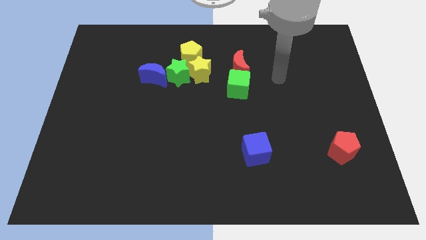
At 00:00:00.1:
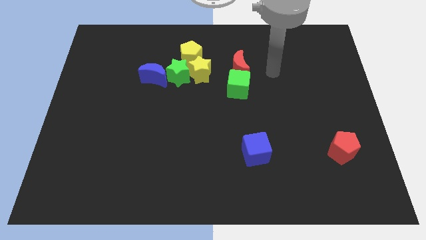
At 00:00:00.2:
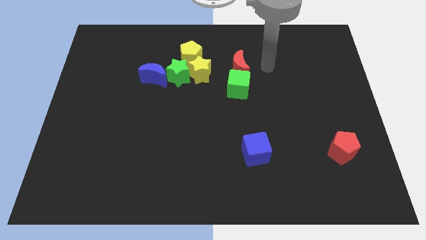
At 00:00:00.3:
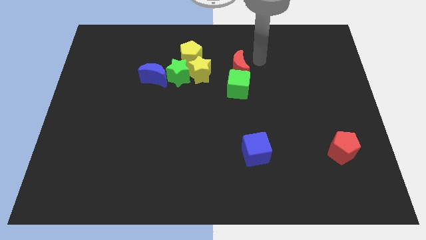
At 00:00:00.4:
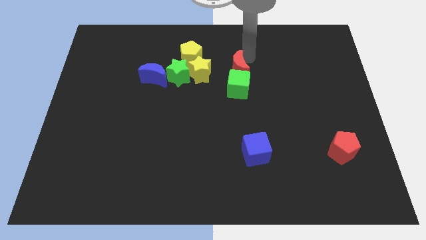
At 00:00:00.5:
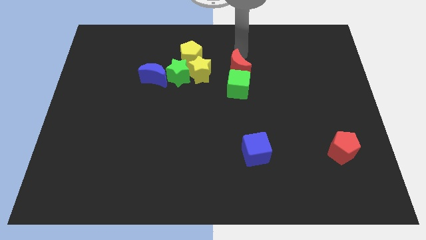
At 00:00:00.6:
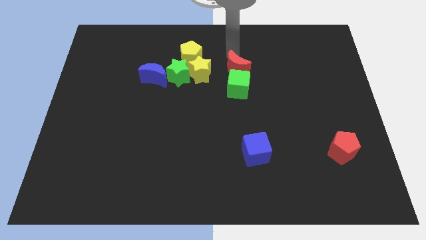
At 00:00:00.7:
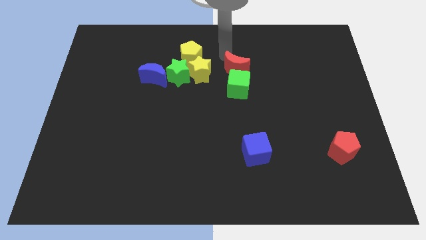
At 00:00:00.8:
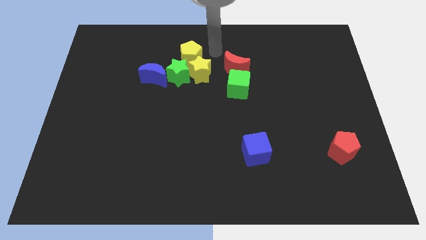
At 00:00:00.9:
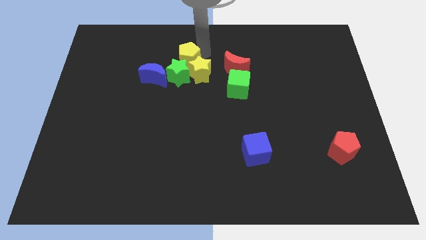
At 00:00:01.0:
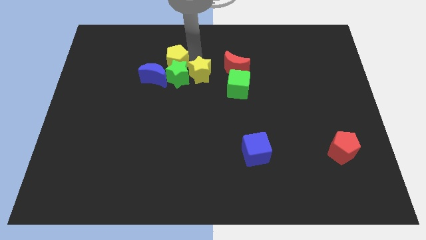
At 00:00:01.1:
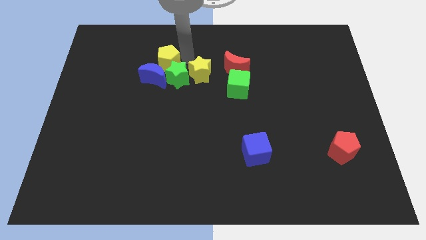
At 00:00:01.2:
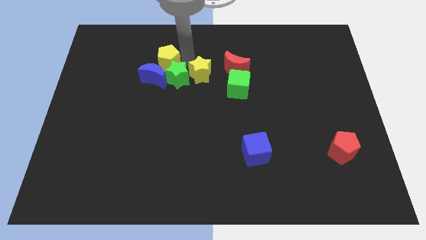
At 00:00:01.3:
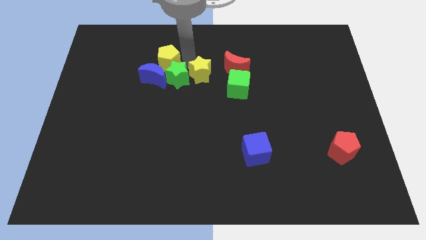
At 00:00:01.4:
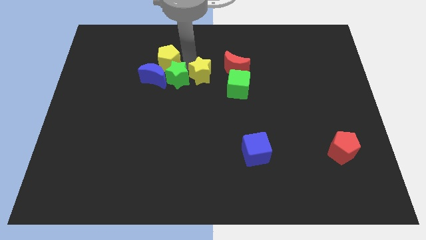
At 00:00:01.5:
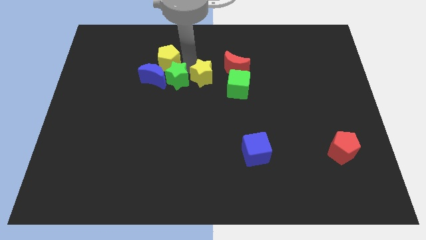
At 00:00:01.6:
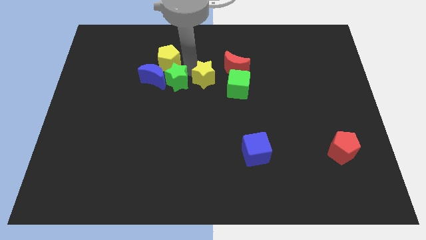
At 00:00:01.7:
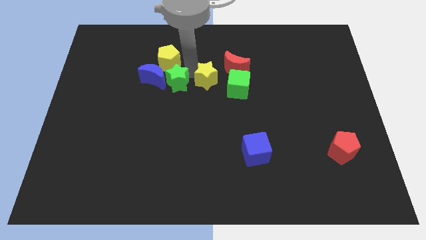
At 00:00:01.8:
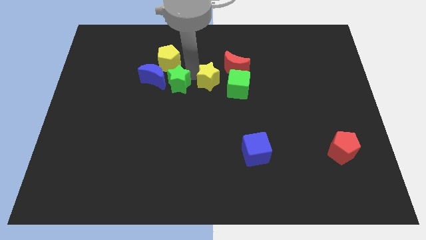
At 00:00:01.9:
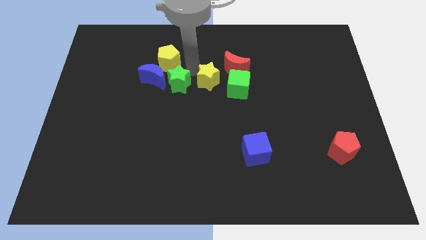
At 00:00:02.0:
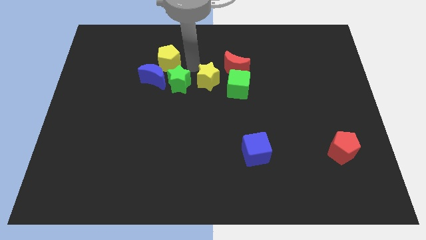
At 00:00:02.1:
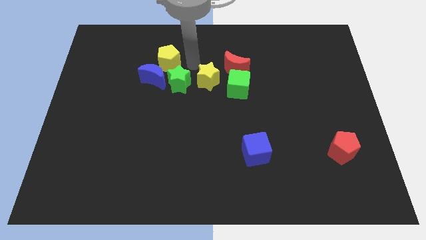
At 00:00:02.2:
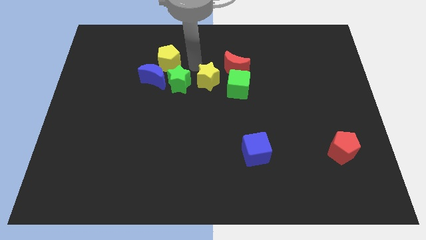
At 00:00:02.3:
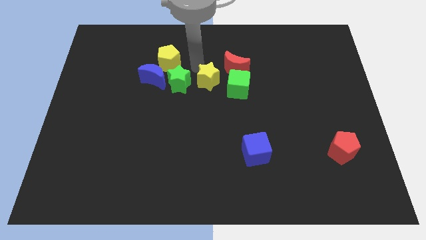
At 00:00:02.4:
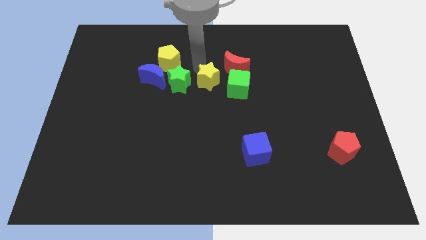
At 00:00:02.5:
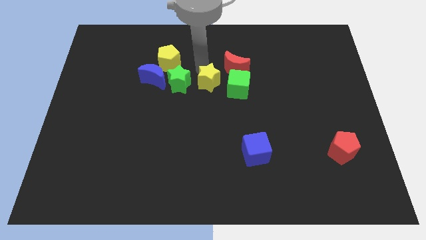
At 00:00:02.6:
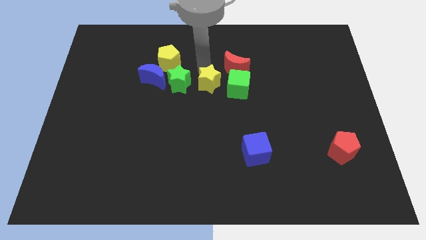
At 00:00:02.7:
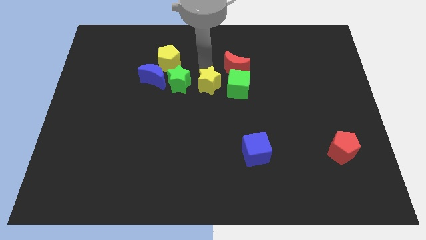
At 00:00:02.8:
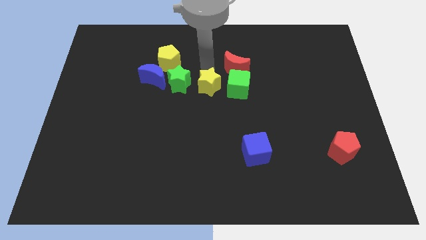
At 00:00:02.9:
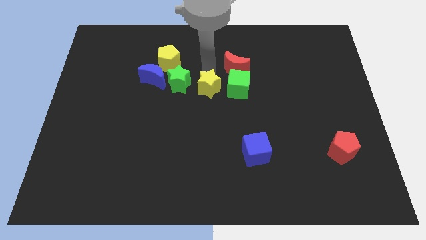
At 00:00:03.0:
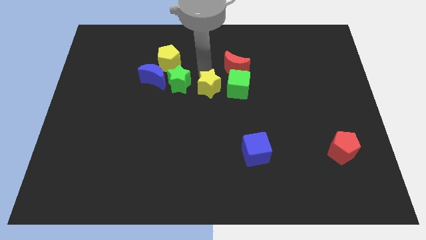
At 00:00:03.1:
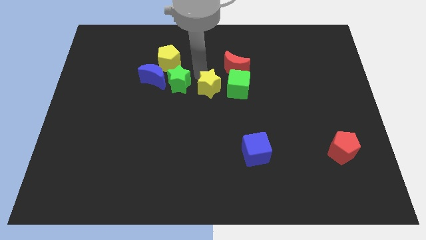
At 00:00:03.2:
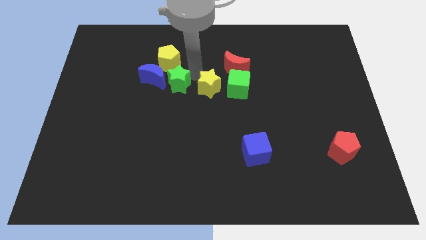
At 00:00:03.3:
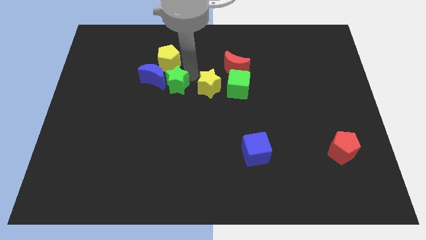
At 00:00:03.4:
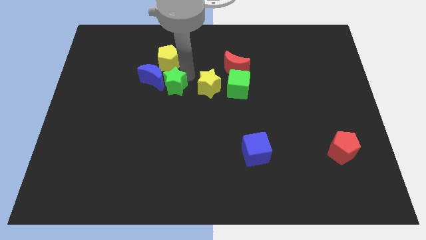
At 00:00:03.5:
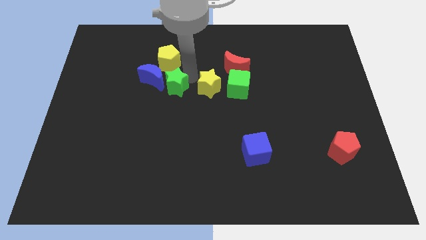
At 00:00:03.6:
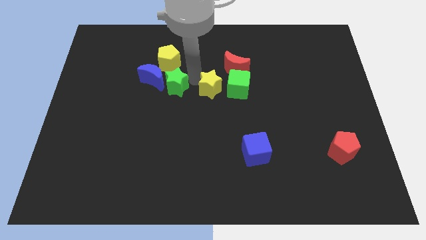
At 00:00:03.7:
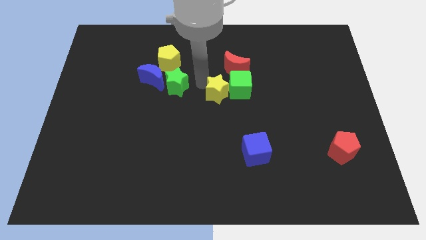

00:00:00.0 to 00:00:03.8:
slightly slide the yellow star downwards and to the right diagonally

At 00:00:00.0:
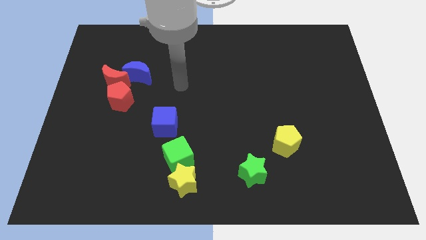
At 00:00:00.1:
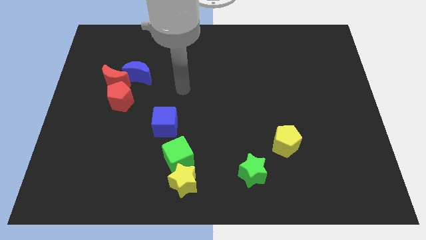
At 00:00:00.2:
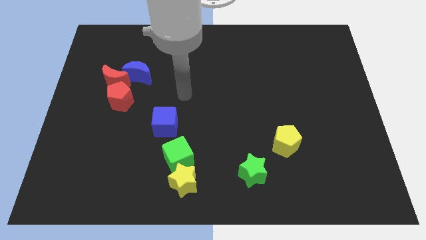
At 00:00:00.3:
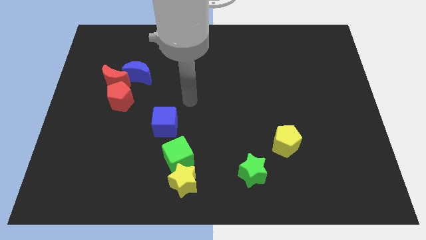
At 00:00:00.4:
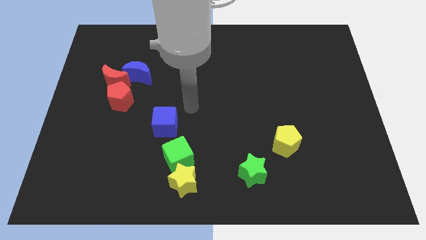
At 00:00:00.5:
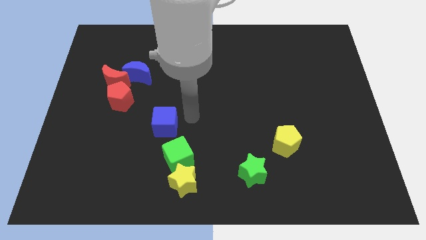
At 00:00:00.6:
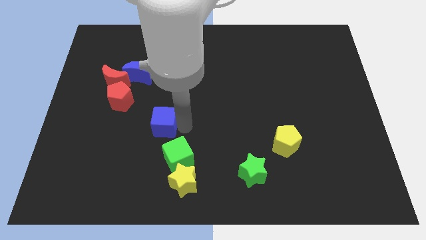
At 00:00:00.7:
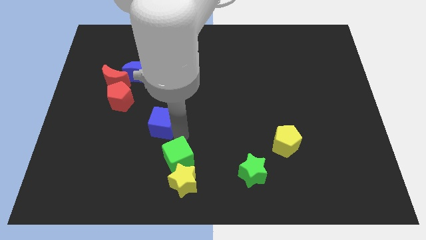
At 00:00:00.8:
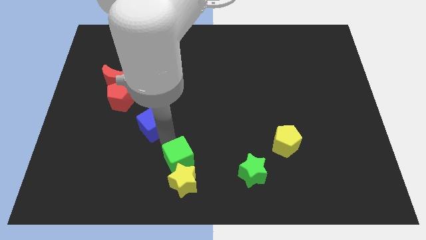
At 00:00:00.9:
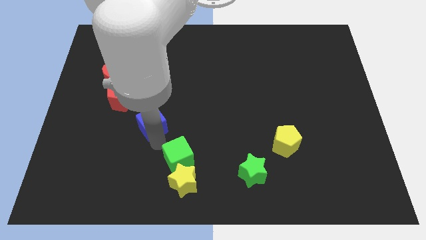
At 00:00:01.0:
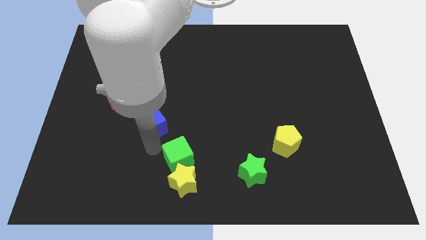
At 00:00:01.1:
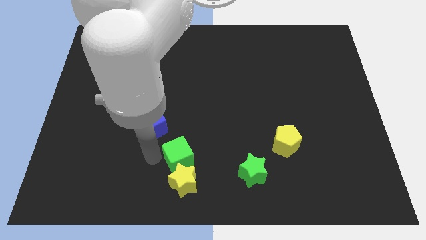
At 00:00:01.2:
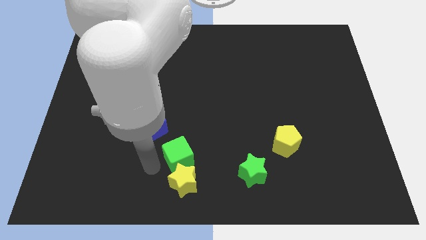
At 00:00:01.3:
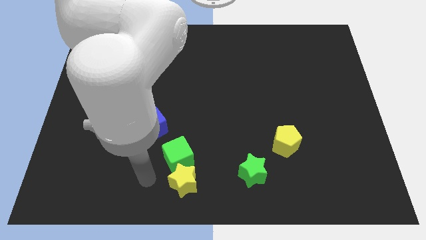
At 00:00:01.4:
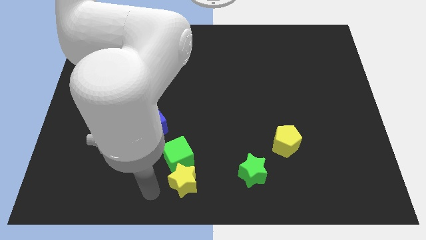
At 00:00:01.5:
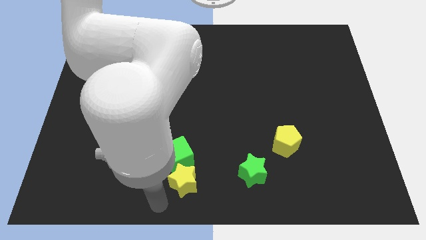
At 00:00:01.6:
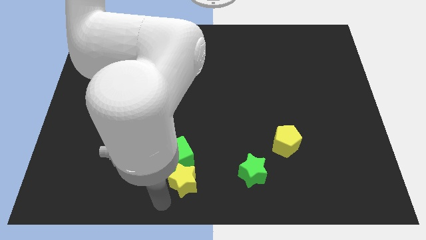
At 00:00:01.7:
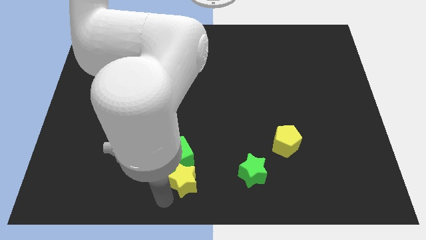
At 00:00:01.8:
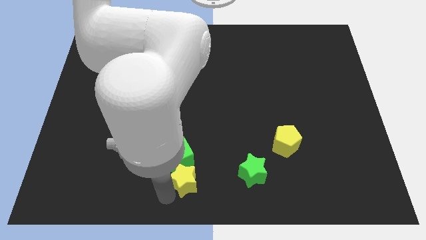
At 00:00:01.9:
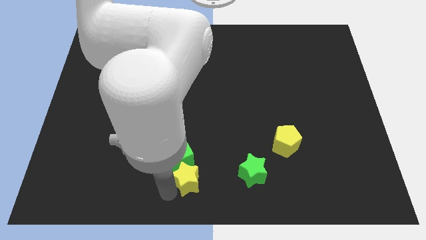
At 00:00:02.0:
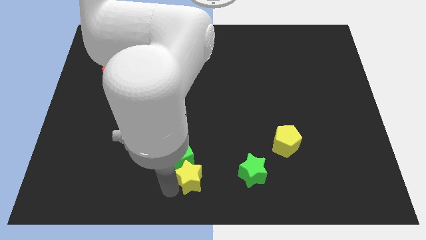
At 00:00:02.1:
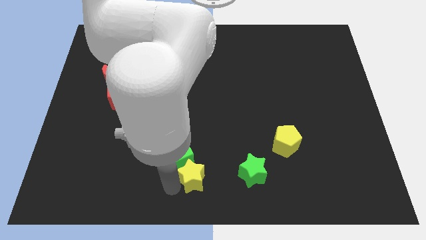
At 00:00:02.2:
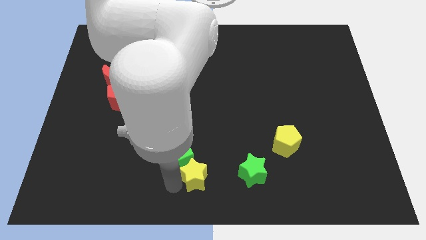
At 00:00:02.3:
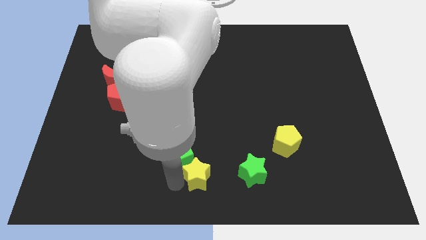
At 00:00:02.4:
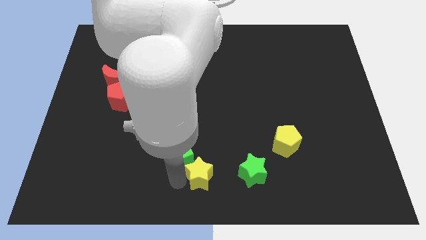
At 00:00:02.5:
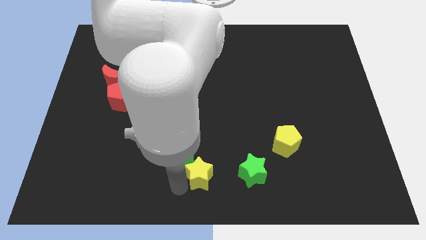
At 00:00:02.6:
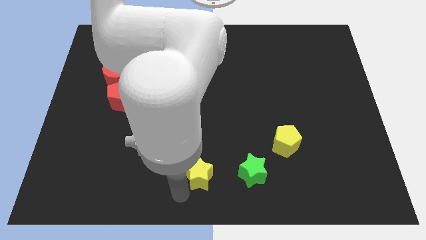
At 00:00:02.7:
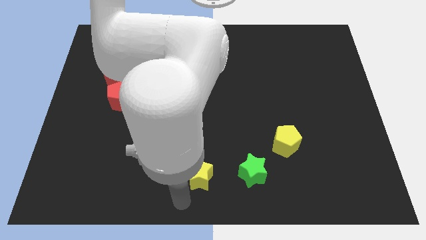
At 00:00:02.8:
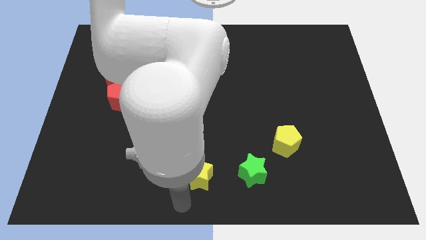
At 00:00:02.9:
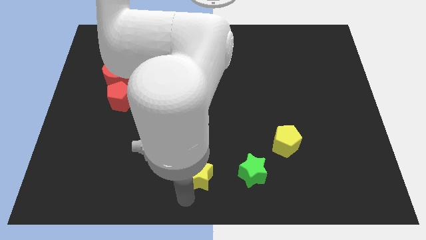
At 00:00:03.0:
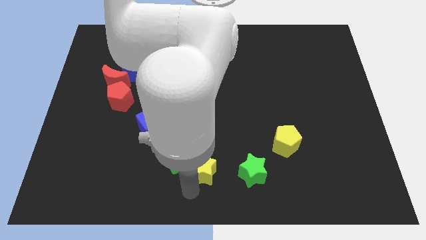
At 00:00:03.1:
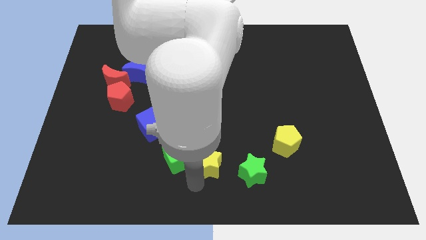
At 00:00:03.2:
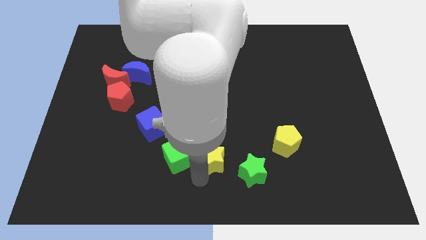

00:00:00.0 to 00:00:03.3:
push the yellow star somewhat up and then right

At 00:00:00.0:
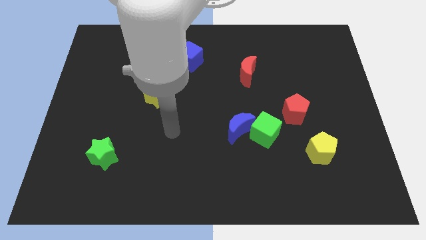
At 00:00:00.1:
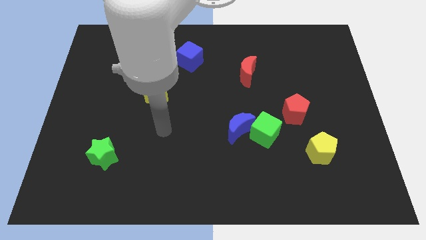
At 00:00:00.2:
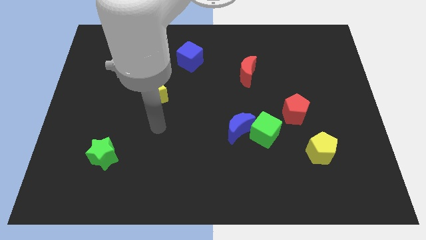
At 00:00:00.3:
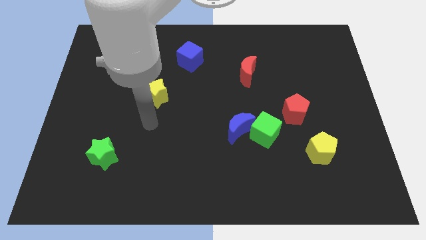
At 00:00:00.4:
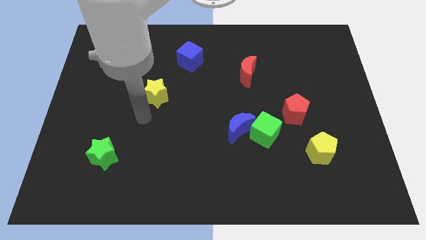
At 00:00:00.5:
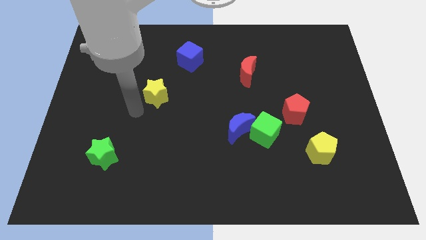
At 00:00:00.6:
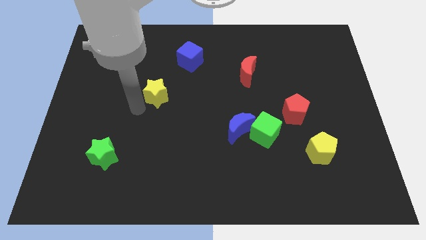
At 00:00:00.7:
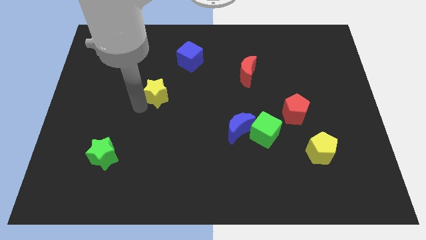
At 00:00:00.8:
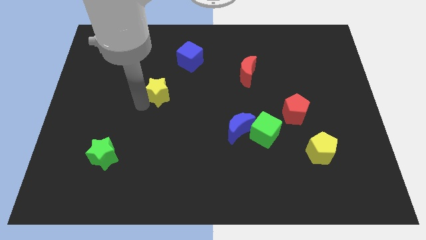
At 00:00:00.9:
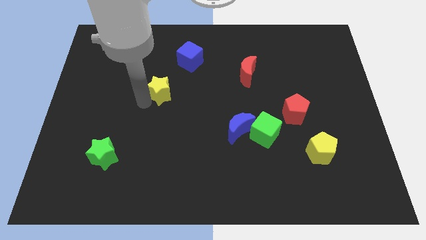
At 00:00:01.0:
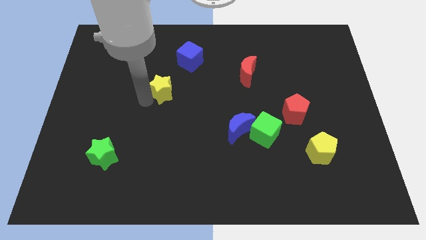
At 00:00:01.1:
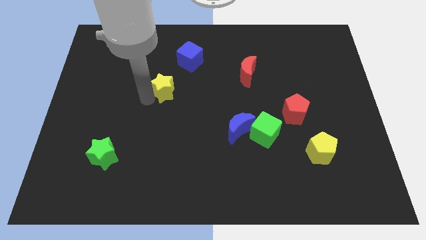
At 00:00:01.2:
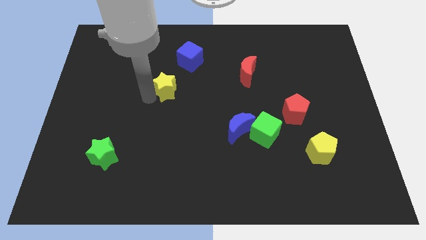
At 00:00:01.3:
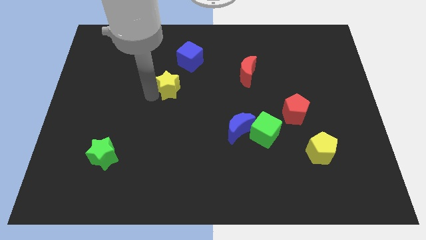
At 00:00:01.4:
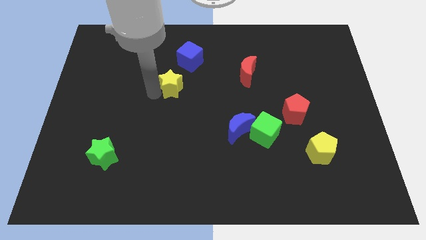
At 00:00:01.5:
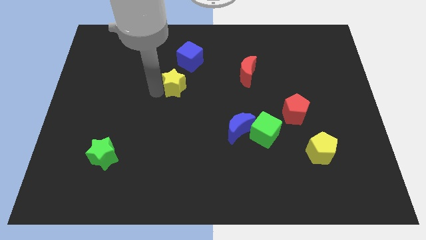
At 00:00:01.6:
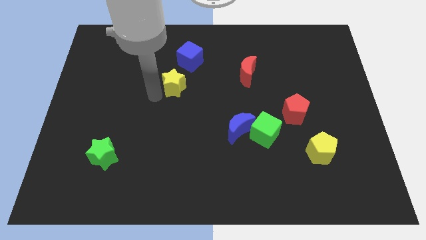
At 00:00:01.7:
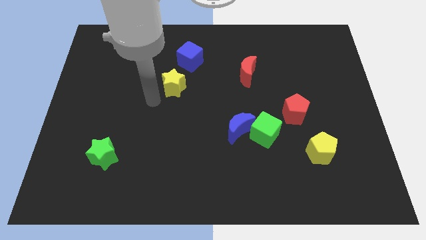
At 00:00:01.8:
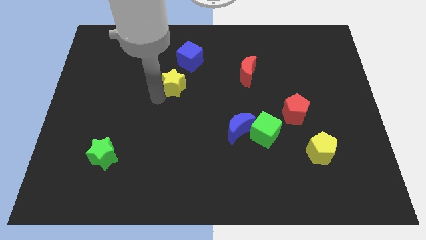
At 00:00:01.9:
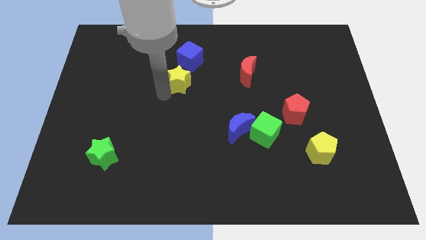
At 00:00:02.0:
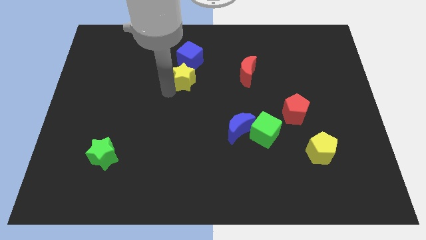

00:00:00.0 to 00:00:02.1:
move the yellow star a bit upwards and then to the right
